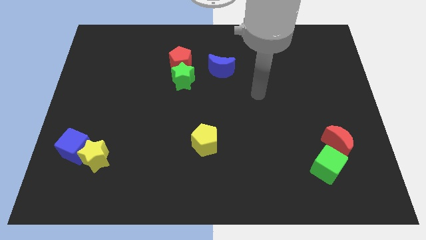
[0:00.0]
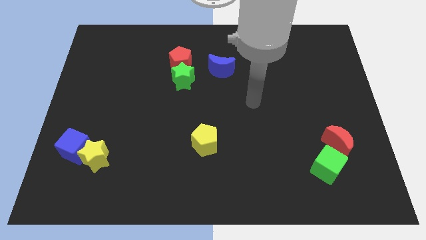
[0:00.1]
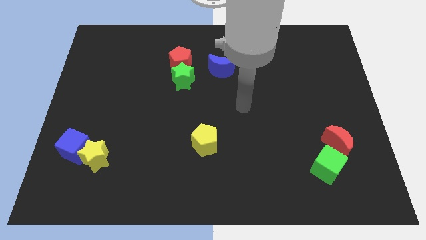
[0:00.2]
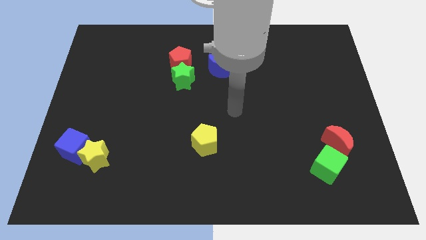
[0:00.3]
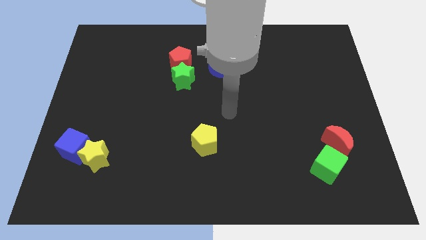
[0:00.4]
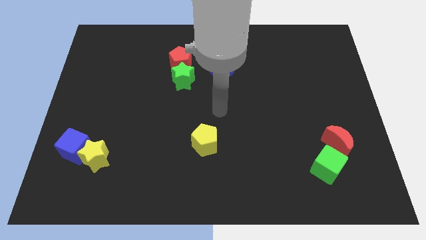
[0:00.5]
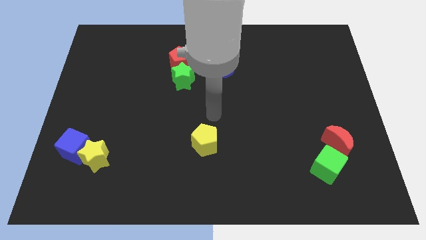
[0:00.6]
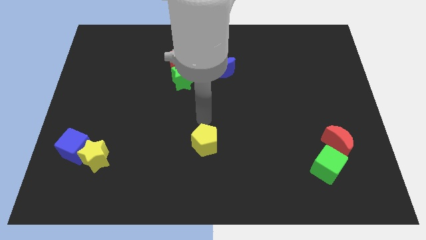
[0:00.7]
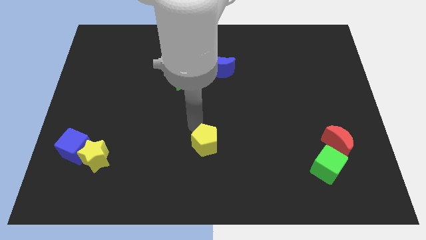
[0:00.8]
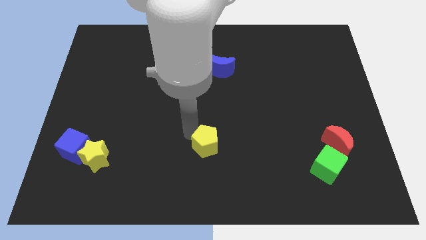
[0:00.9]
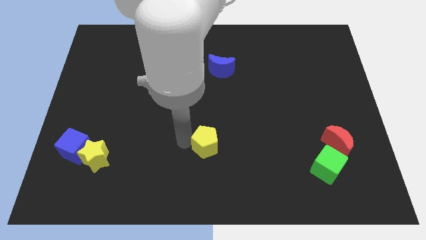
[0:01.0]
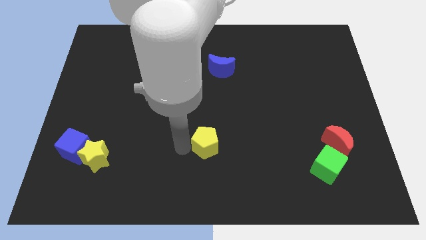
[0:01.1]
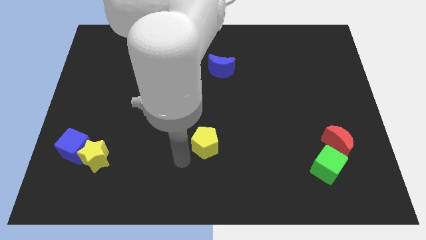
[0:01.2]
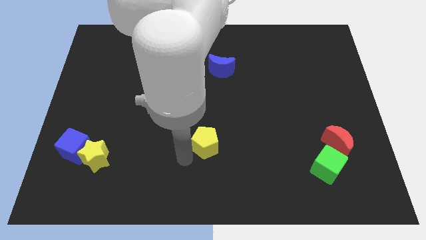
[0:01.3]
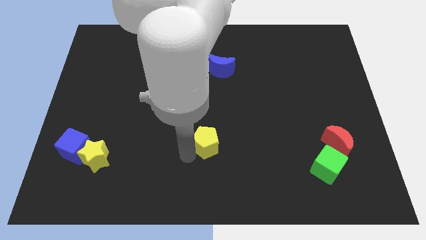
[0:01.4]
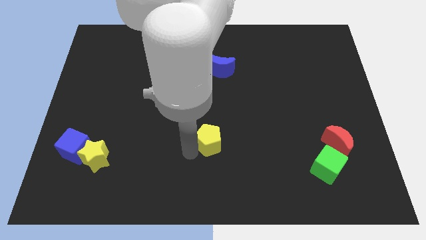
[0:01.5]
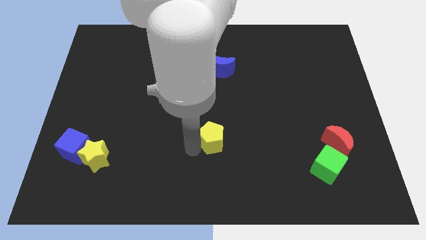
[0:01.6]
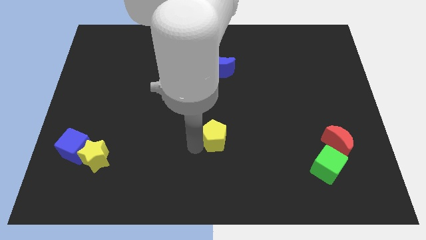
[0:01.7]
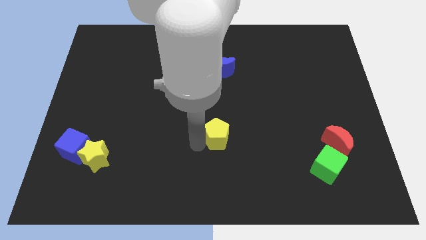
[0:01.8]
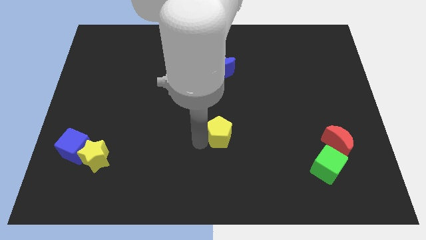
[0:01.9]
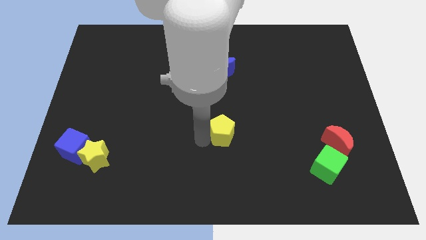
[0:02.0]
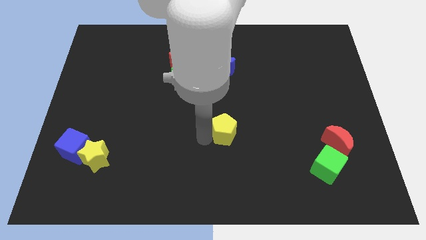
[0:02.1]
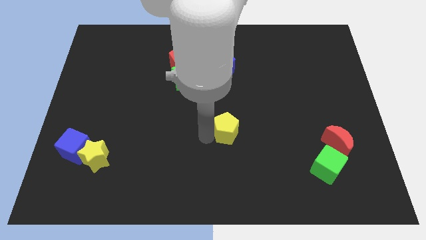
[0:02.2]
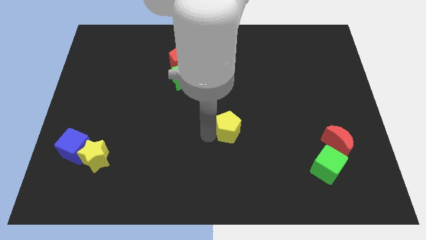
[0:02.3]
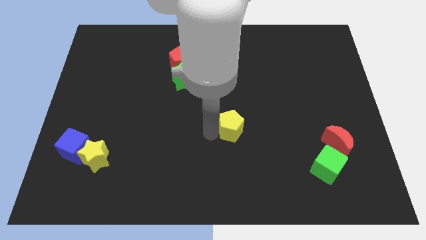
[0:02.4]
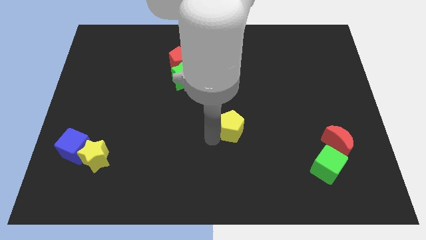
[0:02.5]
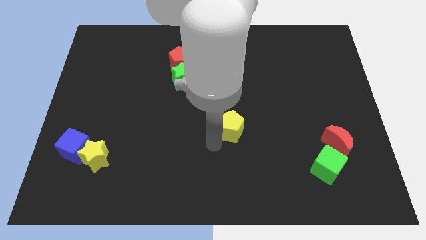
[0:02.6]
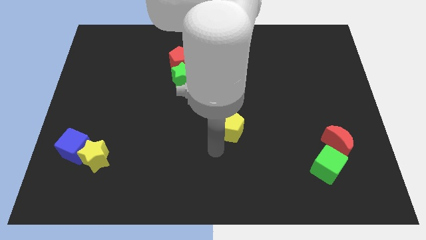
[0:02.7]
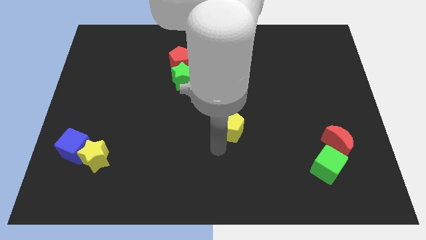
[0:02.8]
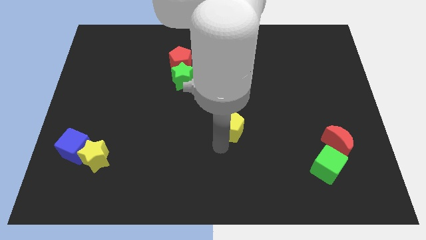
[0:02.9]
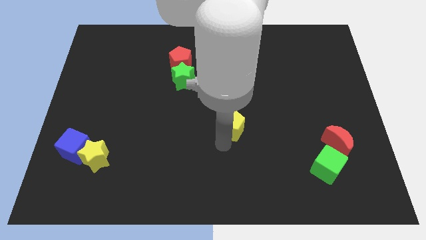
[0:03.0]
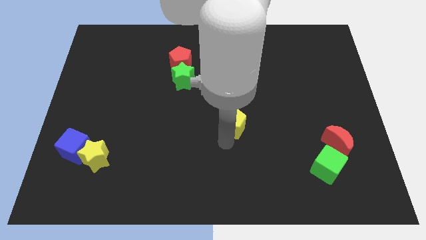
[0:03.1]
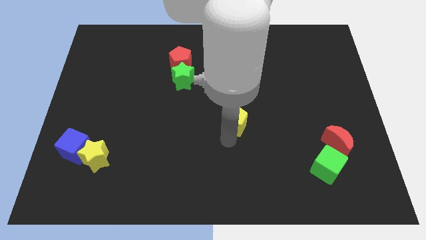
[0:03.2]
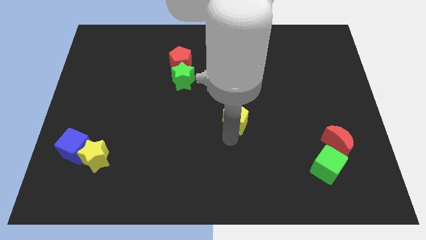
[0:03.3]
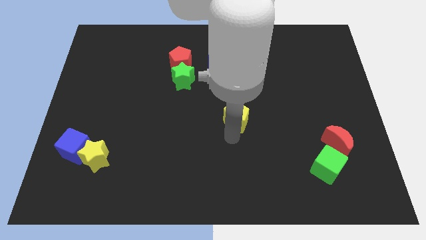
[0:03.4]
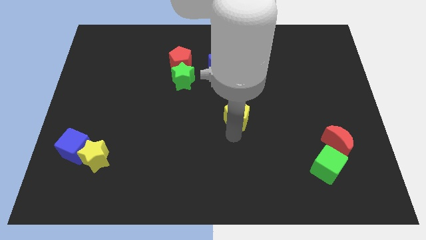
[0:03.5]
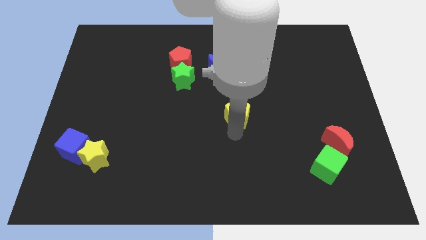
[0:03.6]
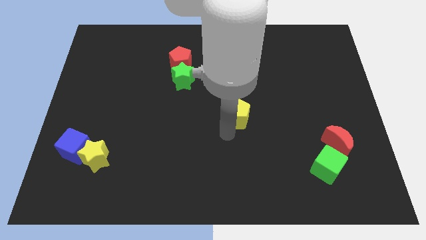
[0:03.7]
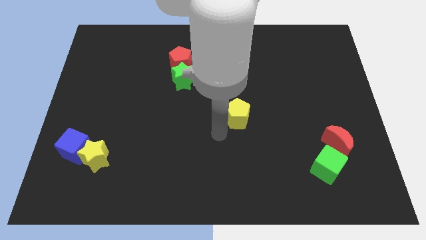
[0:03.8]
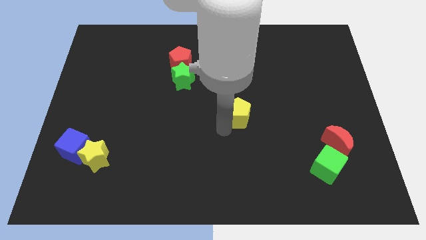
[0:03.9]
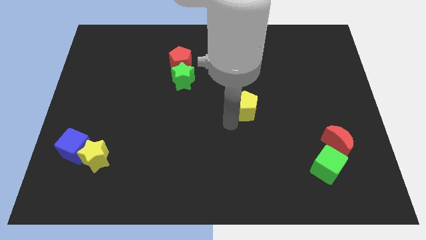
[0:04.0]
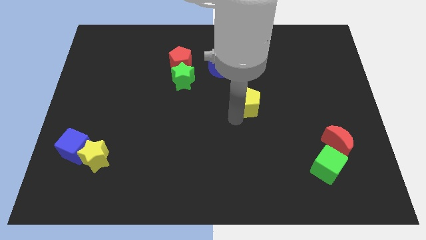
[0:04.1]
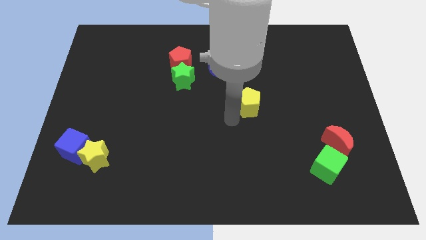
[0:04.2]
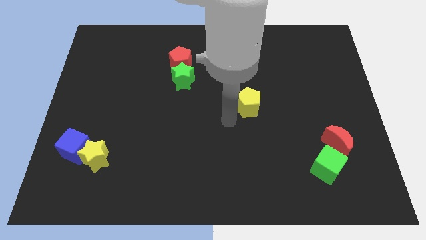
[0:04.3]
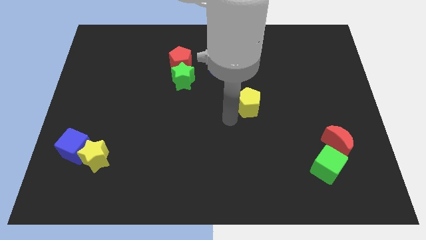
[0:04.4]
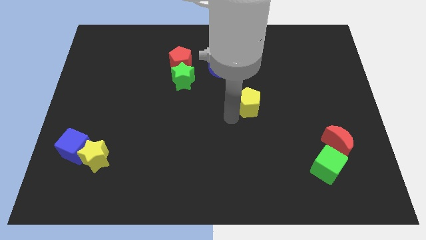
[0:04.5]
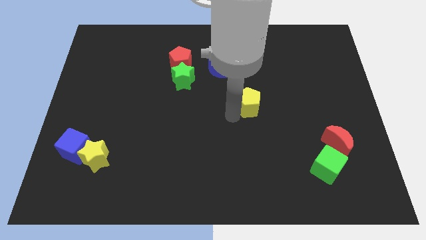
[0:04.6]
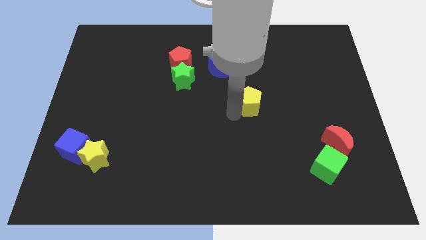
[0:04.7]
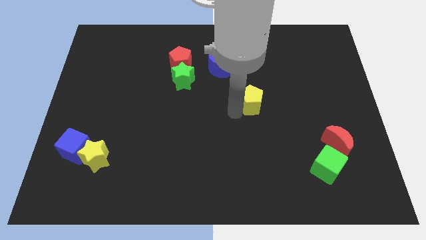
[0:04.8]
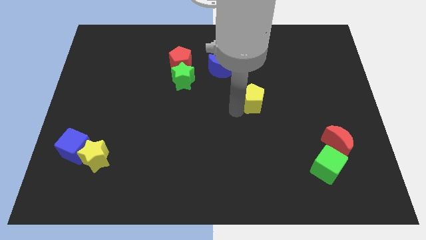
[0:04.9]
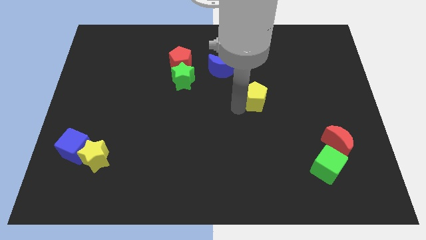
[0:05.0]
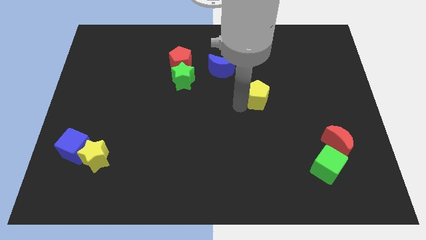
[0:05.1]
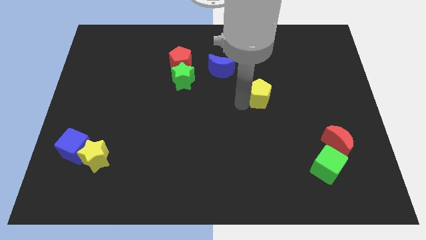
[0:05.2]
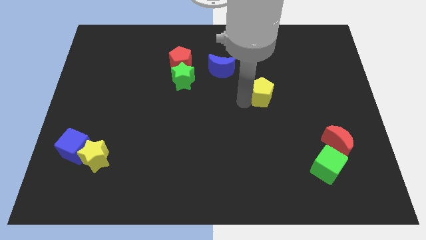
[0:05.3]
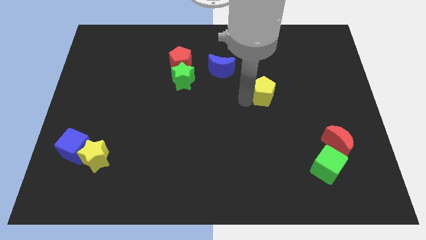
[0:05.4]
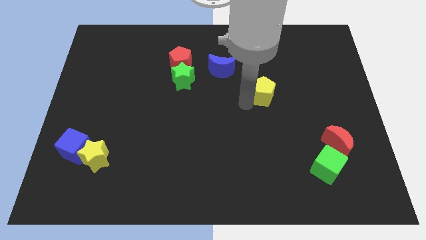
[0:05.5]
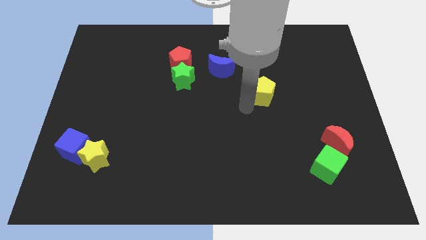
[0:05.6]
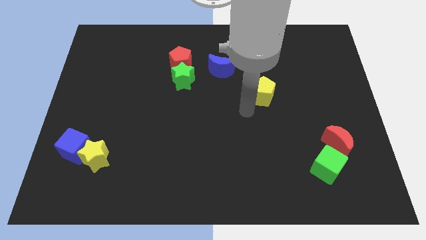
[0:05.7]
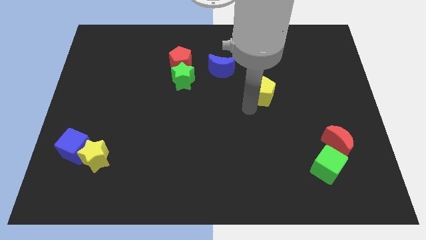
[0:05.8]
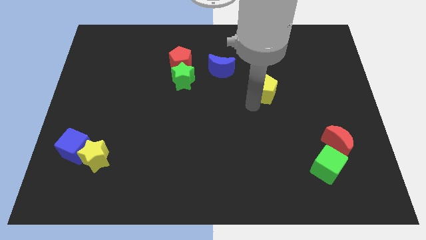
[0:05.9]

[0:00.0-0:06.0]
slide the yellow pentagon upwards and then right

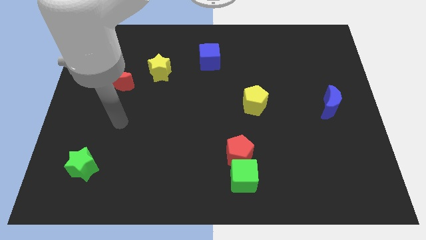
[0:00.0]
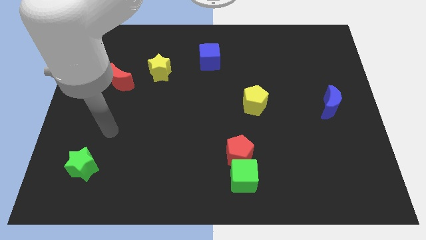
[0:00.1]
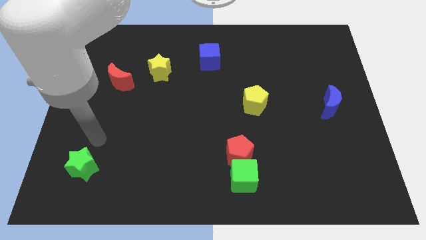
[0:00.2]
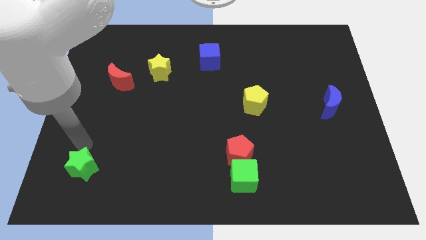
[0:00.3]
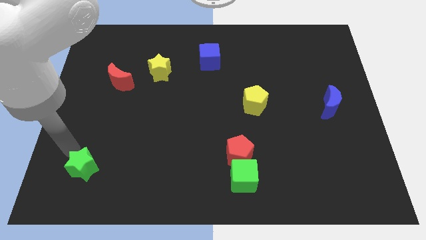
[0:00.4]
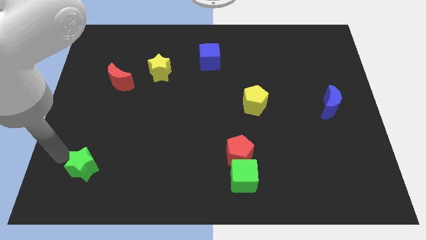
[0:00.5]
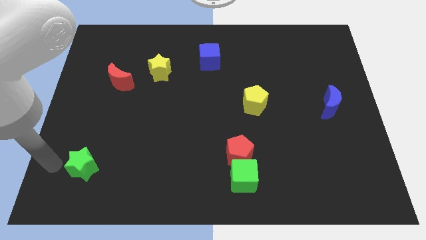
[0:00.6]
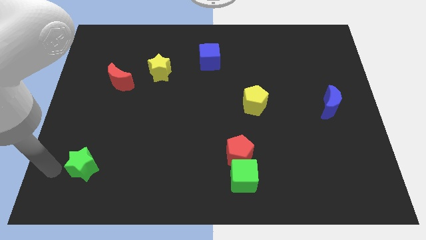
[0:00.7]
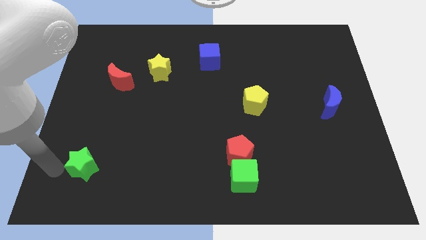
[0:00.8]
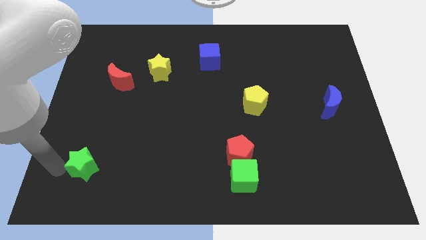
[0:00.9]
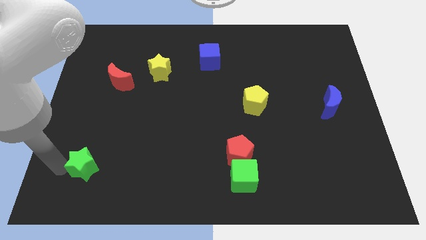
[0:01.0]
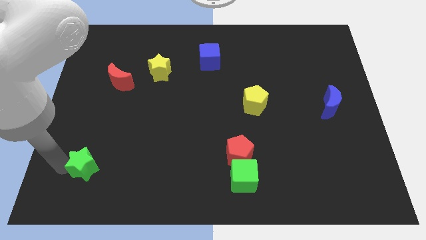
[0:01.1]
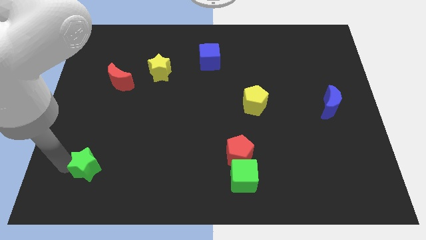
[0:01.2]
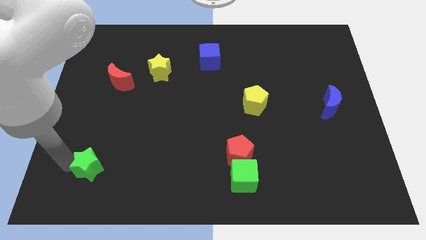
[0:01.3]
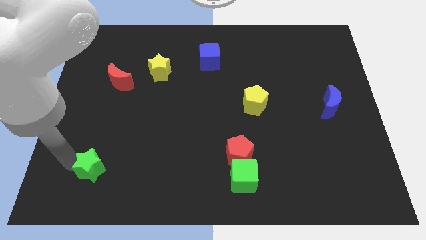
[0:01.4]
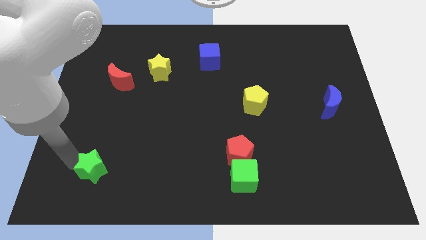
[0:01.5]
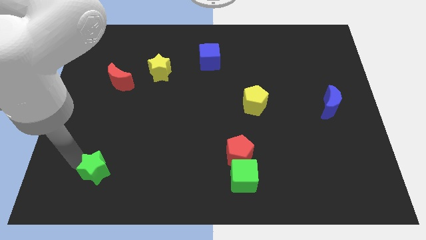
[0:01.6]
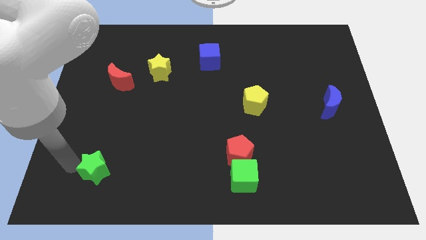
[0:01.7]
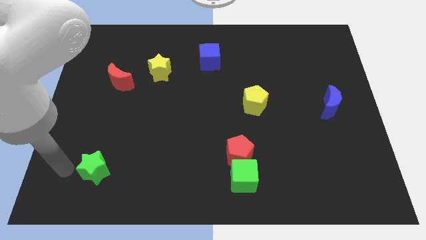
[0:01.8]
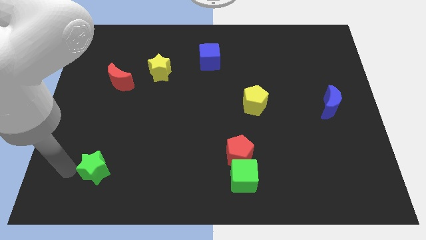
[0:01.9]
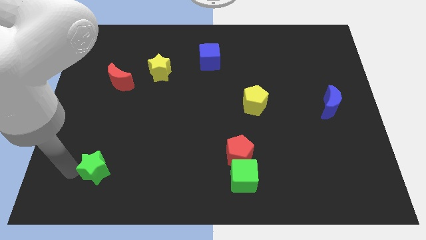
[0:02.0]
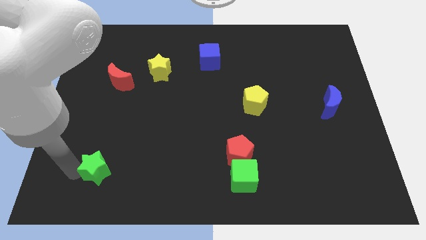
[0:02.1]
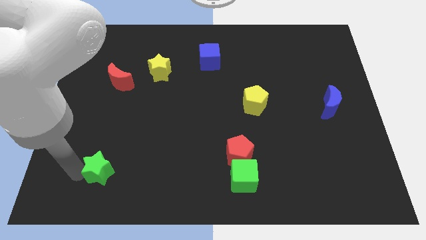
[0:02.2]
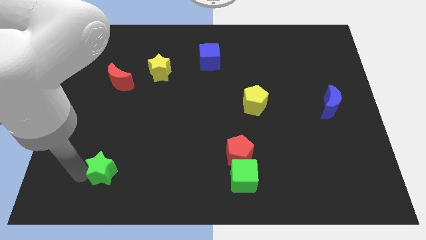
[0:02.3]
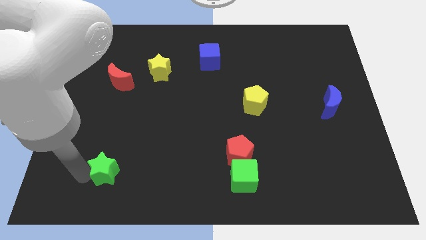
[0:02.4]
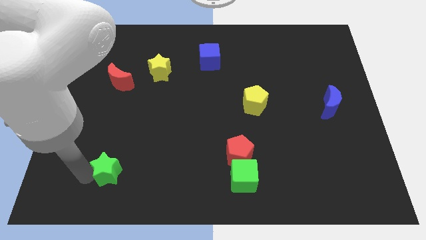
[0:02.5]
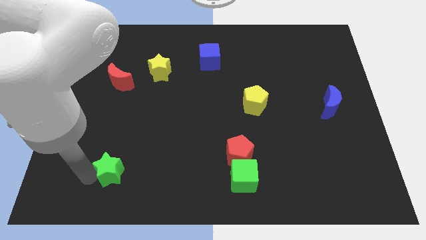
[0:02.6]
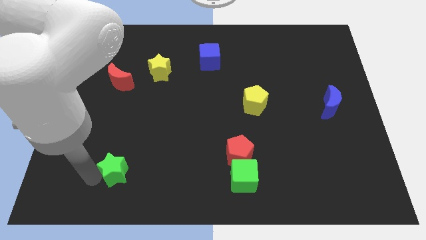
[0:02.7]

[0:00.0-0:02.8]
slightly move the green star to the right
